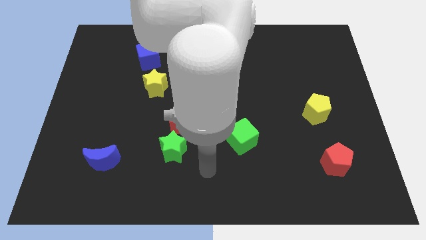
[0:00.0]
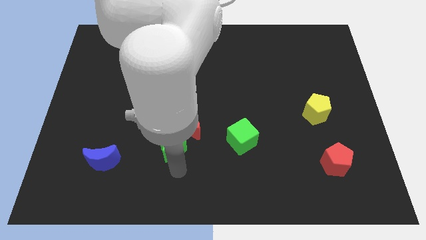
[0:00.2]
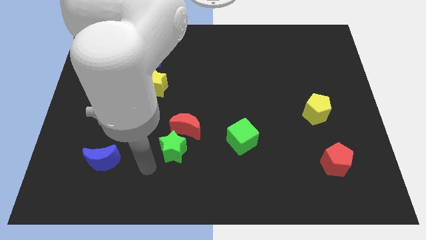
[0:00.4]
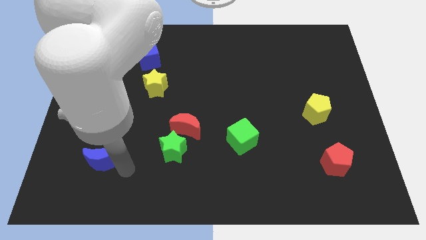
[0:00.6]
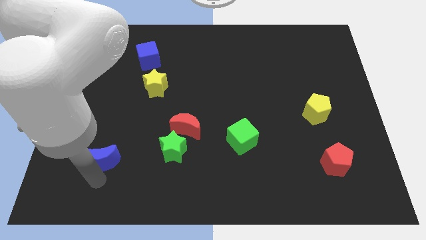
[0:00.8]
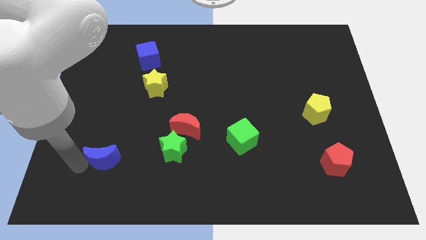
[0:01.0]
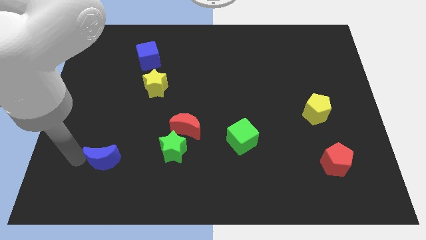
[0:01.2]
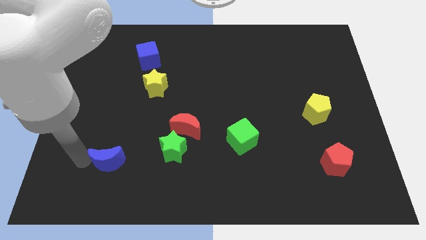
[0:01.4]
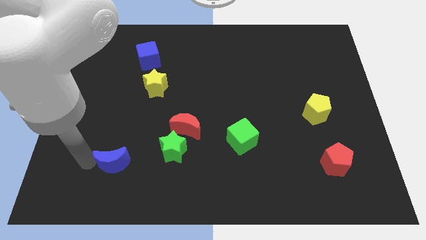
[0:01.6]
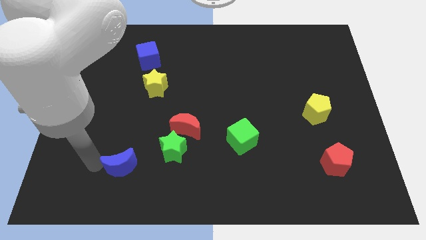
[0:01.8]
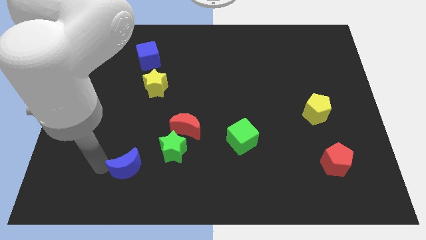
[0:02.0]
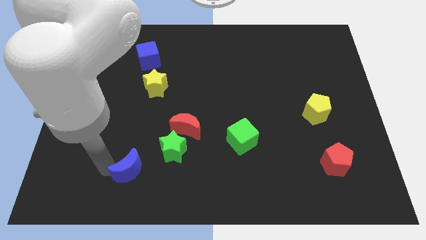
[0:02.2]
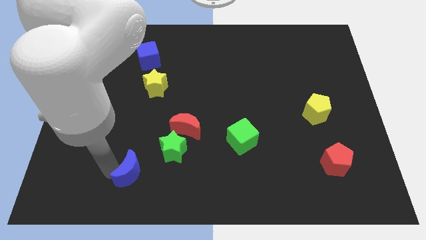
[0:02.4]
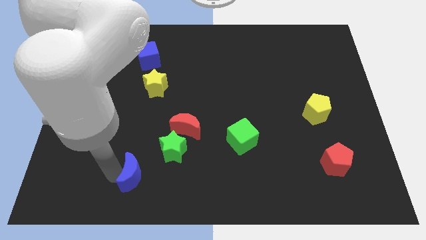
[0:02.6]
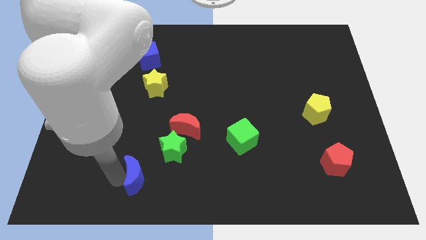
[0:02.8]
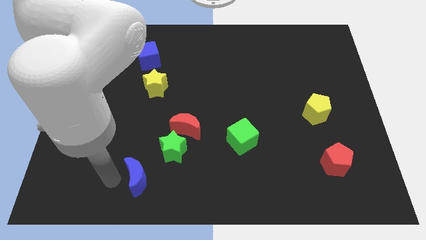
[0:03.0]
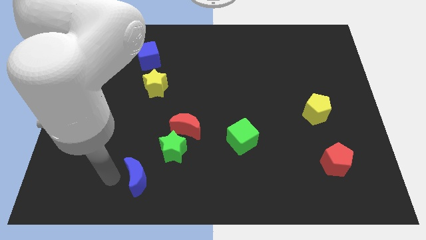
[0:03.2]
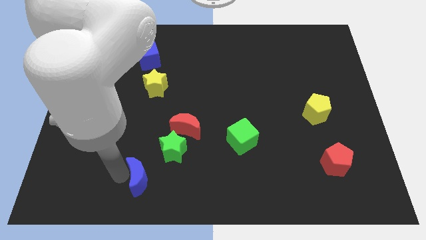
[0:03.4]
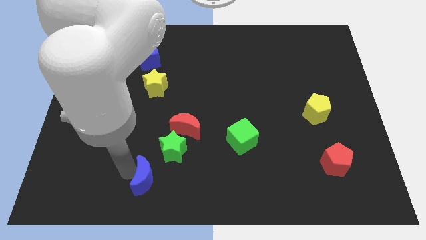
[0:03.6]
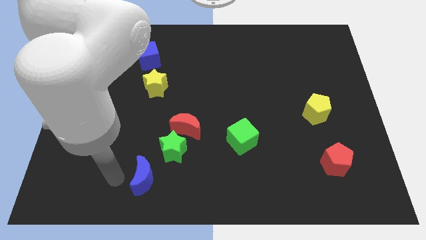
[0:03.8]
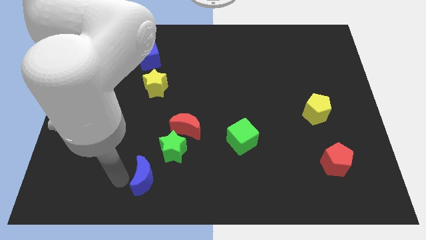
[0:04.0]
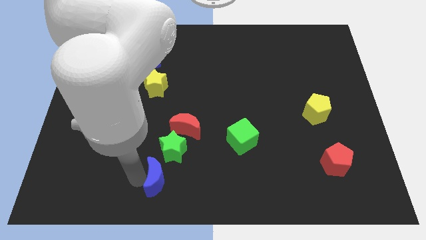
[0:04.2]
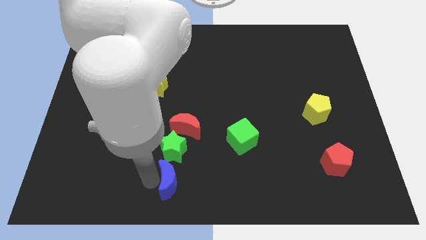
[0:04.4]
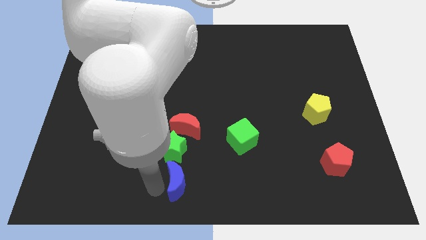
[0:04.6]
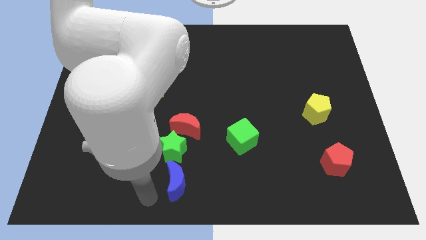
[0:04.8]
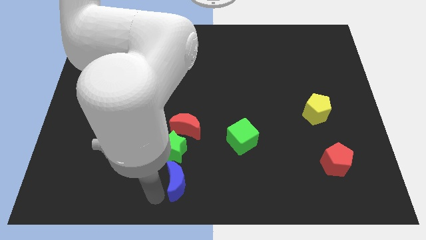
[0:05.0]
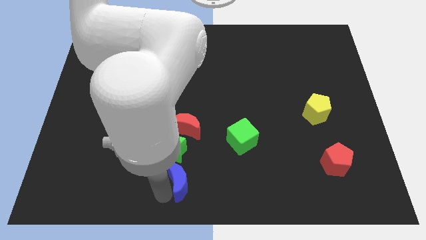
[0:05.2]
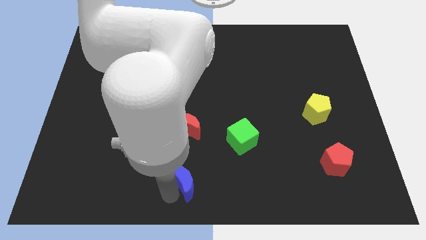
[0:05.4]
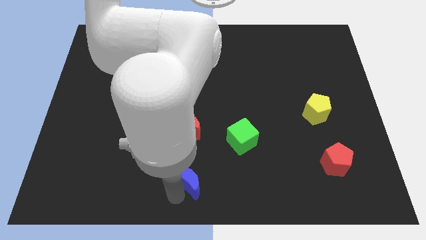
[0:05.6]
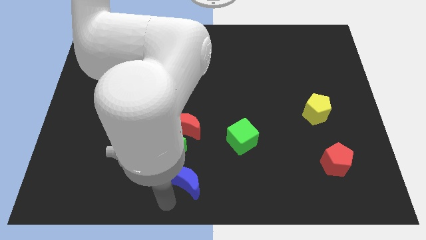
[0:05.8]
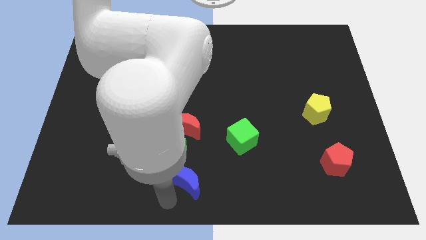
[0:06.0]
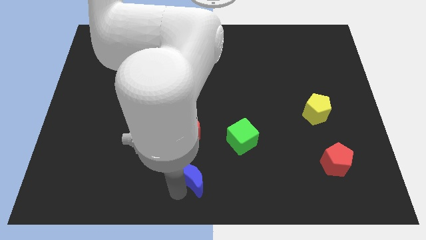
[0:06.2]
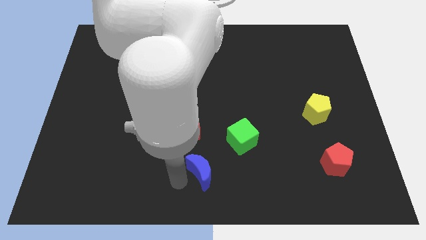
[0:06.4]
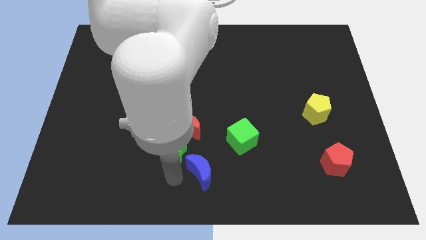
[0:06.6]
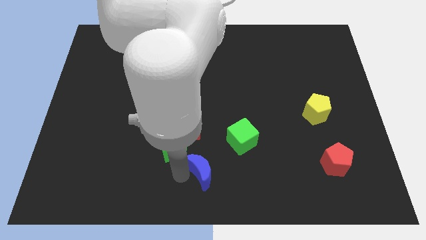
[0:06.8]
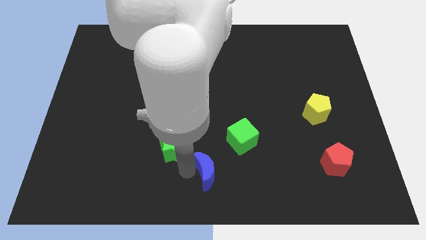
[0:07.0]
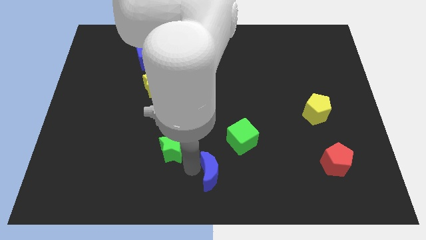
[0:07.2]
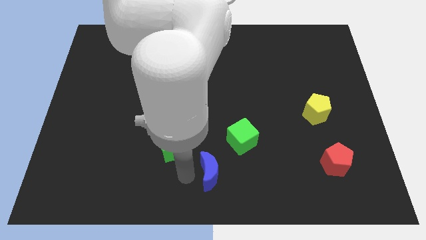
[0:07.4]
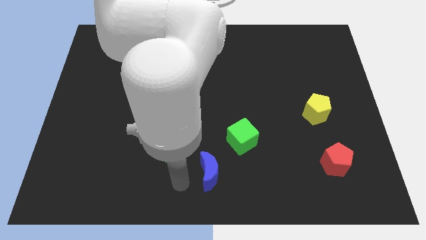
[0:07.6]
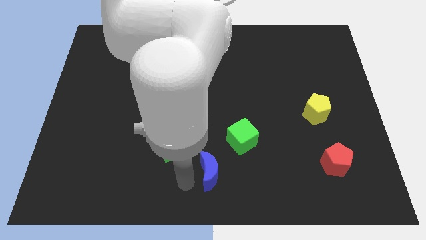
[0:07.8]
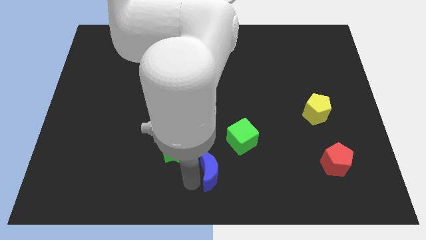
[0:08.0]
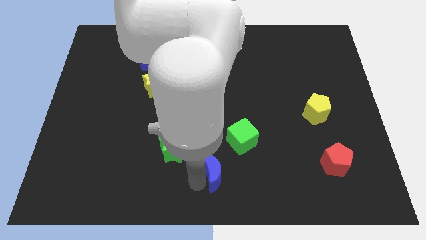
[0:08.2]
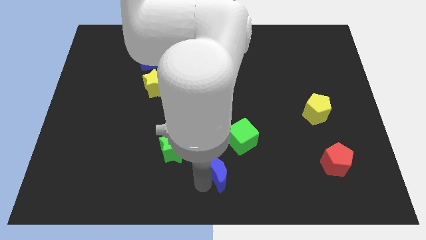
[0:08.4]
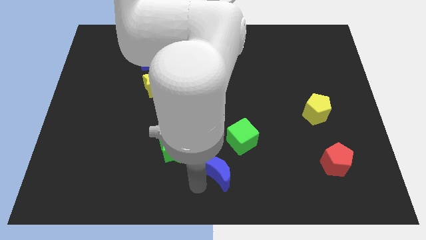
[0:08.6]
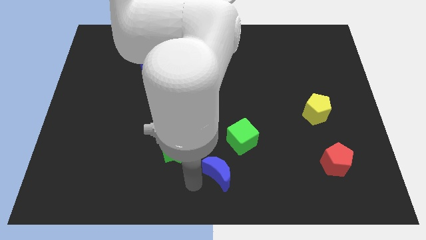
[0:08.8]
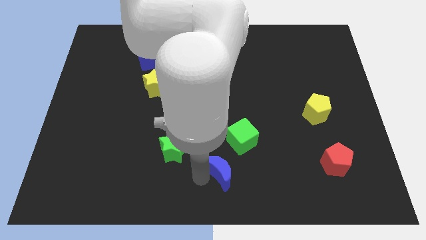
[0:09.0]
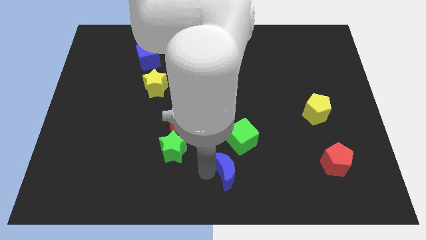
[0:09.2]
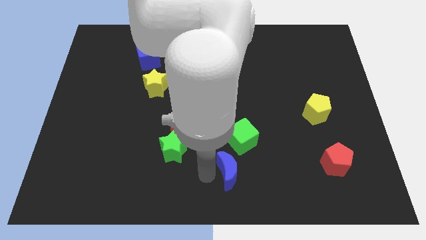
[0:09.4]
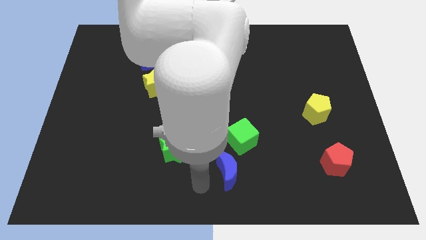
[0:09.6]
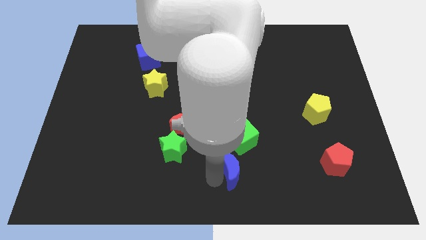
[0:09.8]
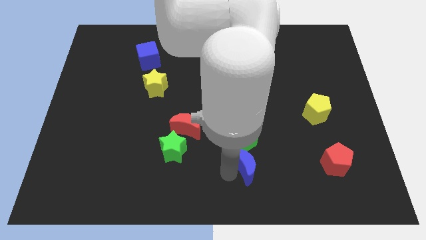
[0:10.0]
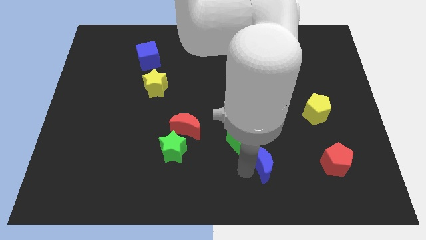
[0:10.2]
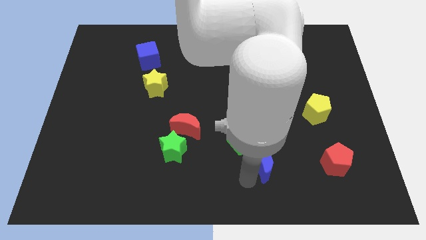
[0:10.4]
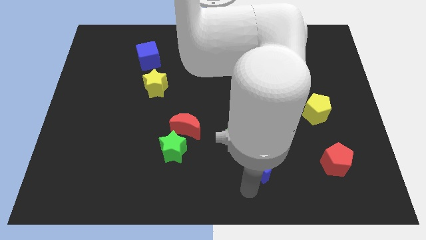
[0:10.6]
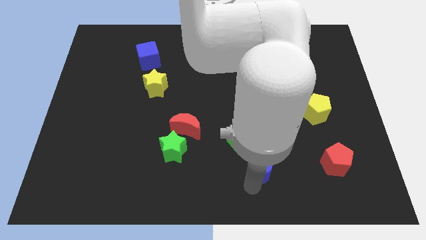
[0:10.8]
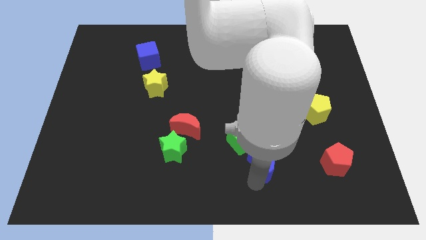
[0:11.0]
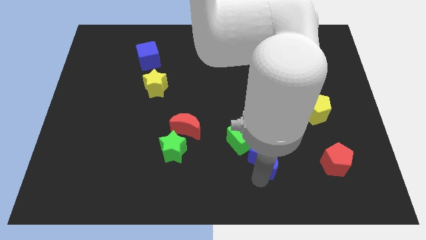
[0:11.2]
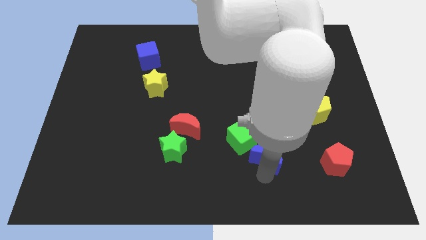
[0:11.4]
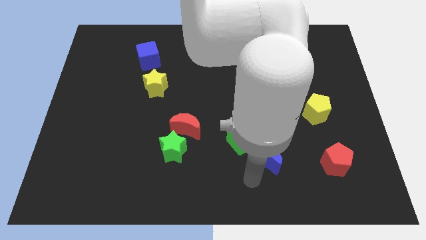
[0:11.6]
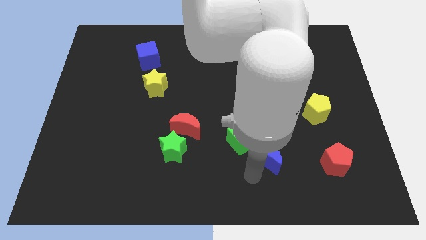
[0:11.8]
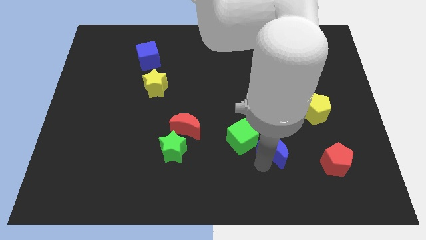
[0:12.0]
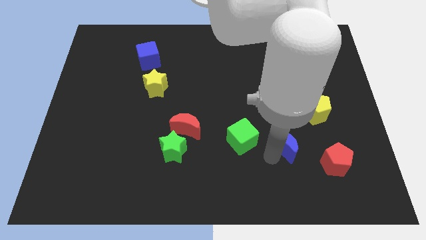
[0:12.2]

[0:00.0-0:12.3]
move the blue moon to the bottom left side of the yellow pentagon
